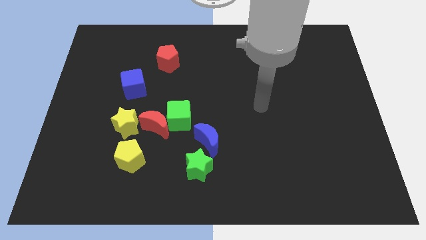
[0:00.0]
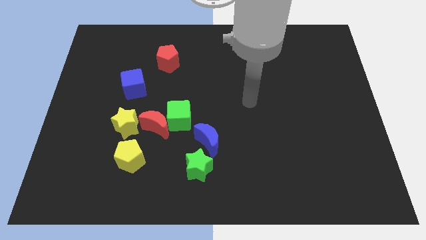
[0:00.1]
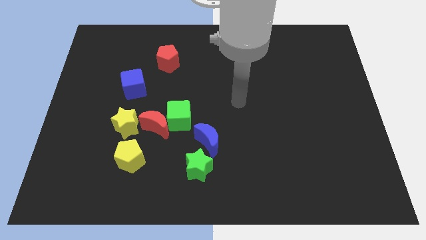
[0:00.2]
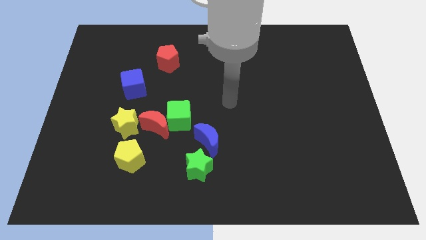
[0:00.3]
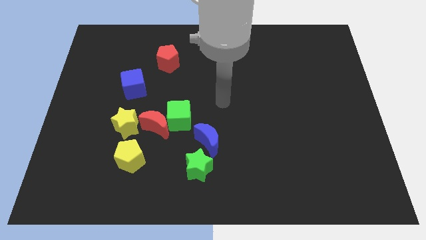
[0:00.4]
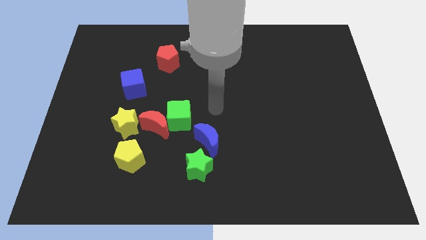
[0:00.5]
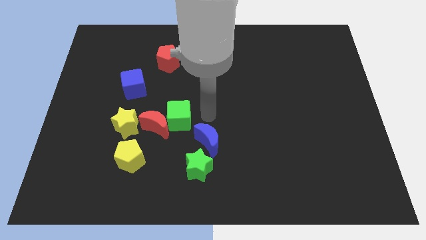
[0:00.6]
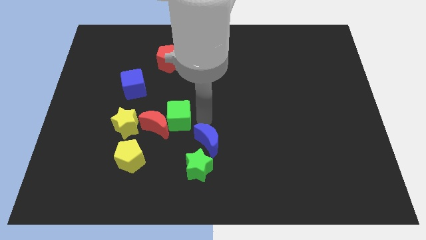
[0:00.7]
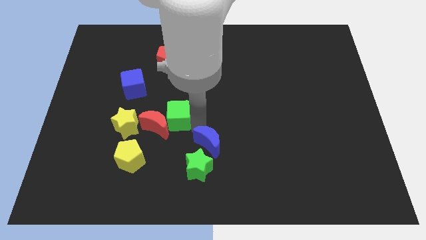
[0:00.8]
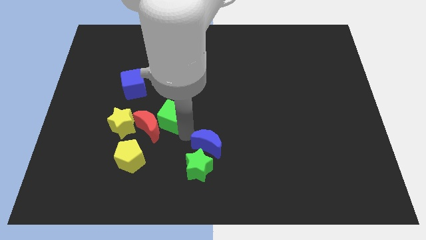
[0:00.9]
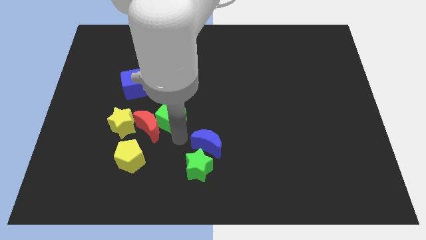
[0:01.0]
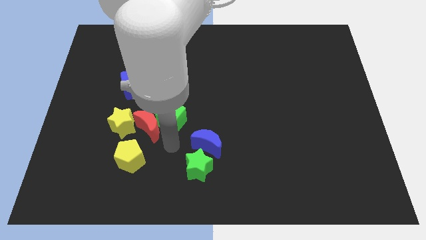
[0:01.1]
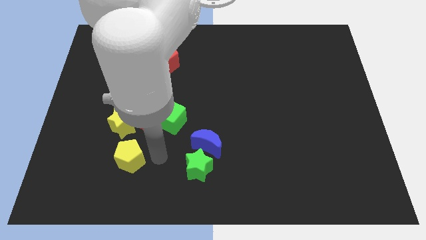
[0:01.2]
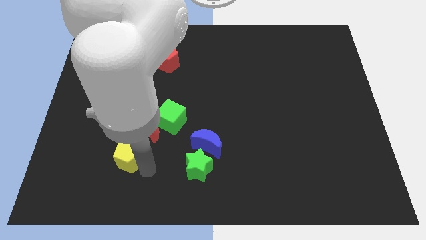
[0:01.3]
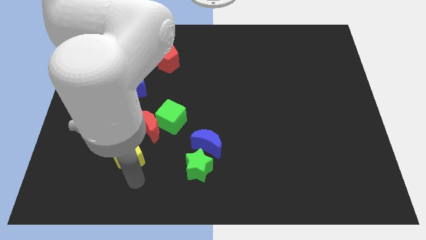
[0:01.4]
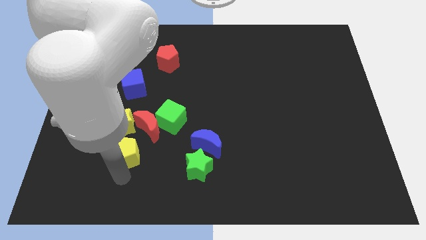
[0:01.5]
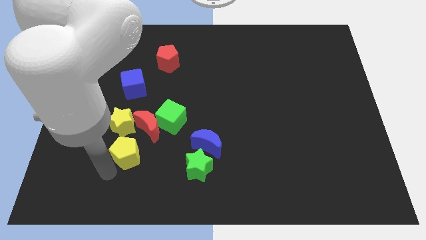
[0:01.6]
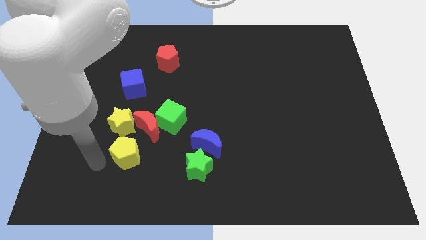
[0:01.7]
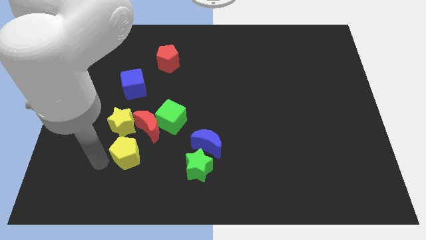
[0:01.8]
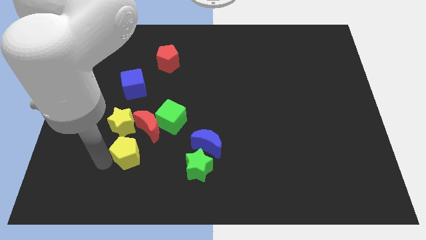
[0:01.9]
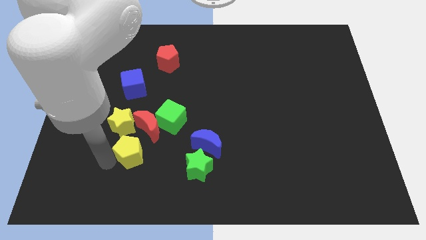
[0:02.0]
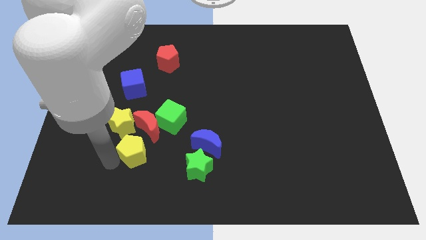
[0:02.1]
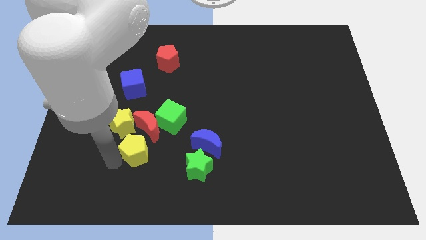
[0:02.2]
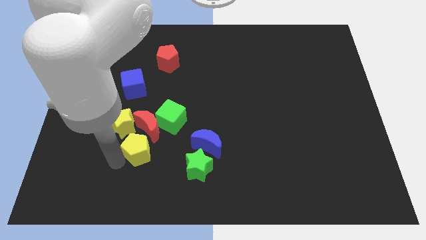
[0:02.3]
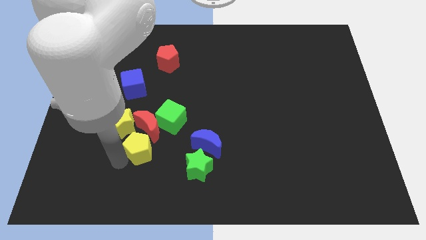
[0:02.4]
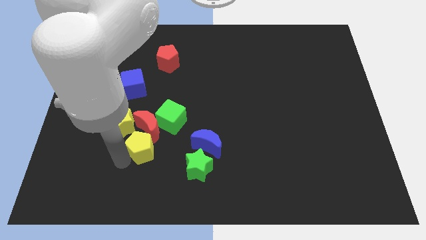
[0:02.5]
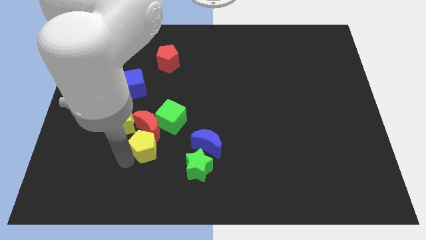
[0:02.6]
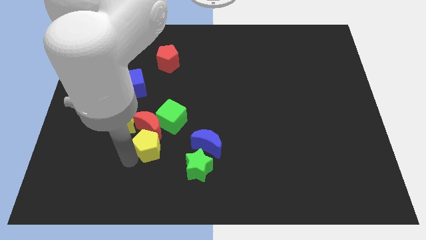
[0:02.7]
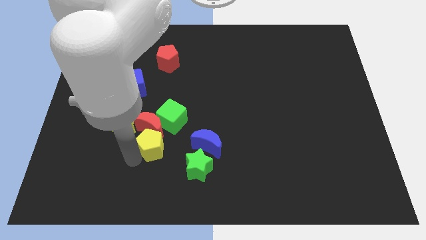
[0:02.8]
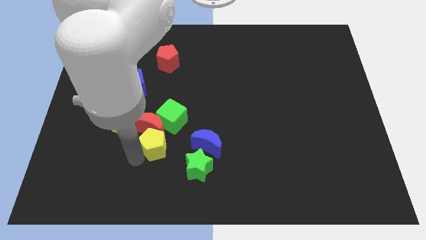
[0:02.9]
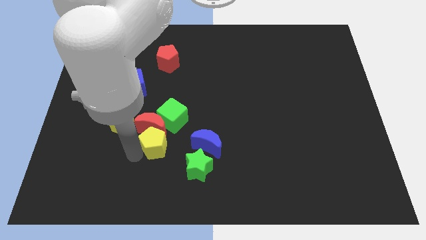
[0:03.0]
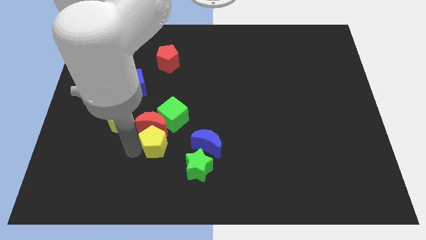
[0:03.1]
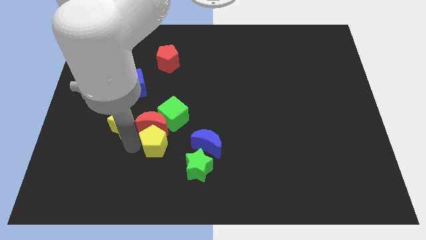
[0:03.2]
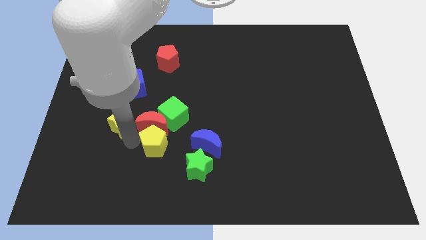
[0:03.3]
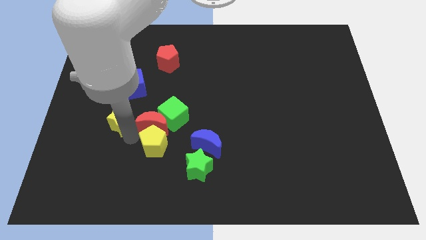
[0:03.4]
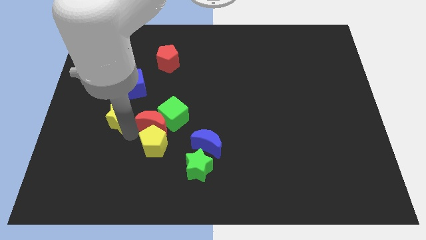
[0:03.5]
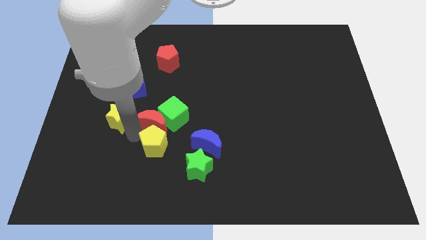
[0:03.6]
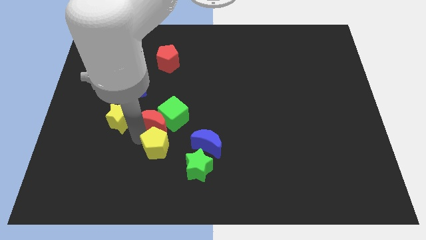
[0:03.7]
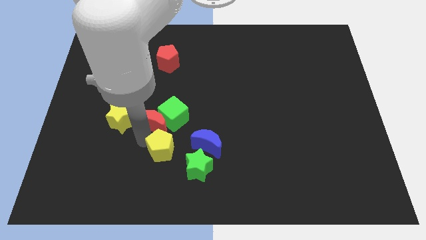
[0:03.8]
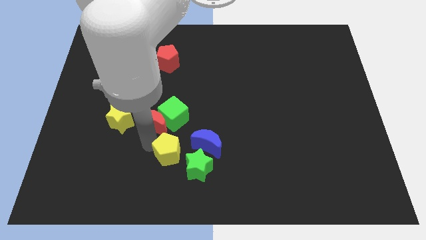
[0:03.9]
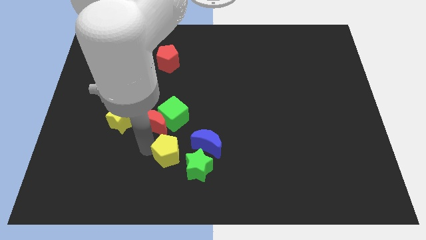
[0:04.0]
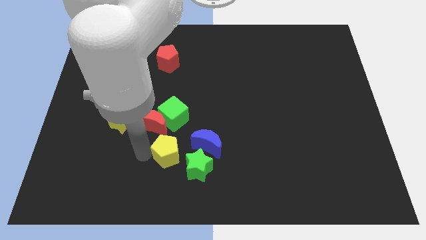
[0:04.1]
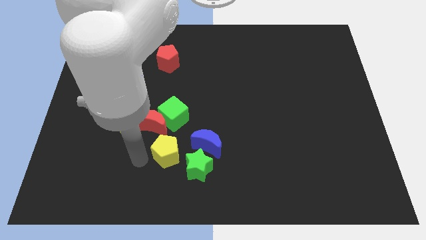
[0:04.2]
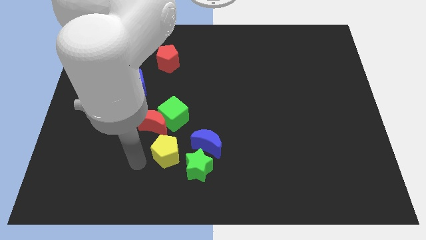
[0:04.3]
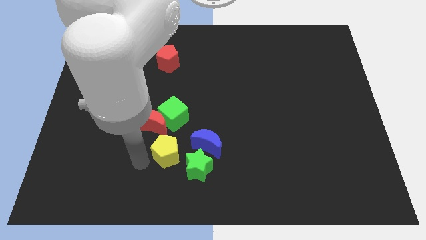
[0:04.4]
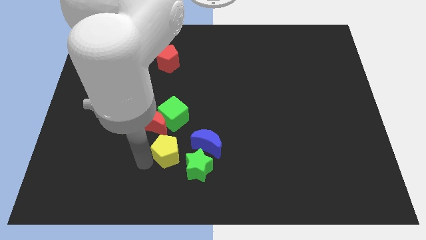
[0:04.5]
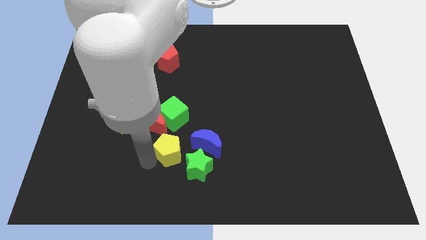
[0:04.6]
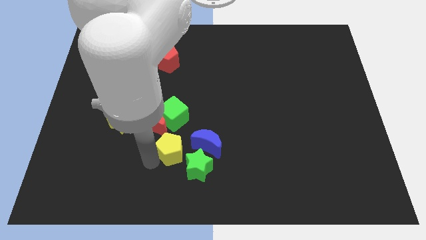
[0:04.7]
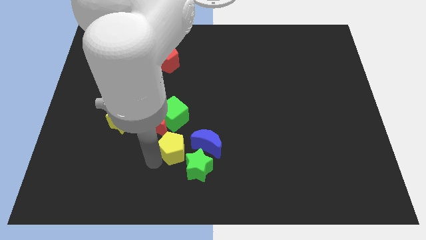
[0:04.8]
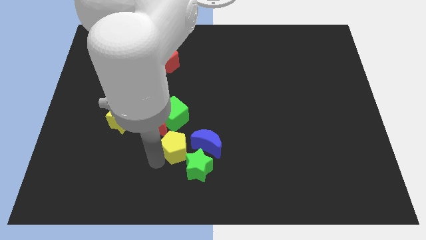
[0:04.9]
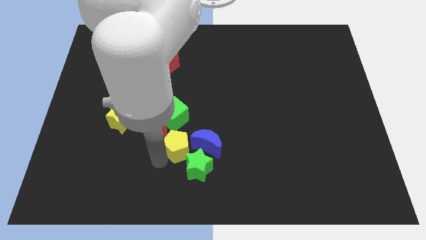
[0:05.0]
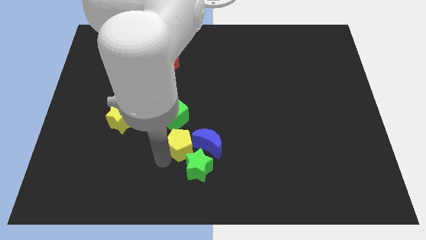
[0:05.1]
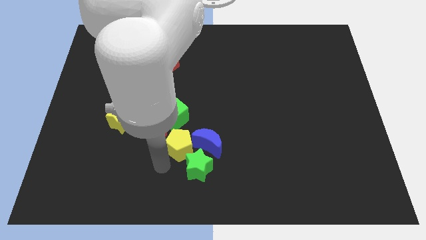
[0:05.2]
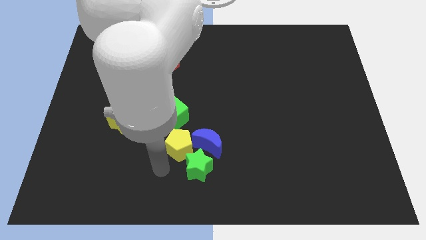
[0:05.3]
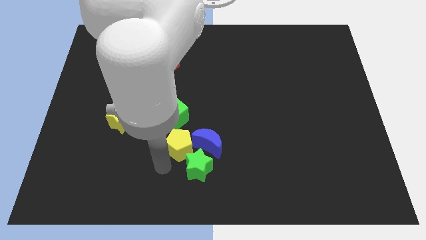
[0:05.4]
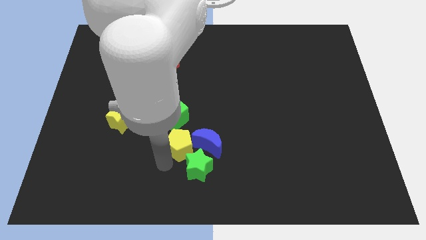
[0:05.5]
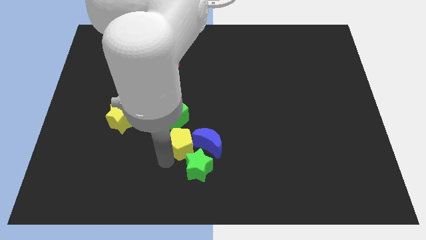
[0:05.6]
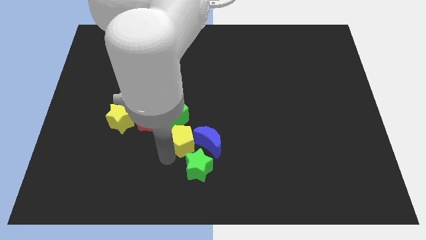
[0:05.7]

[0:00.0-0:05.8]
put the yellow pentagon just right of the red moon

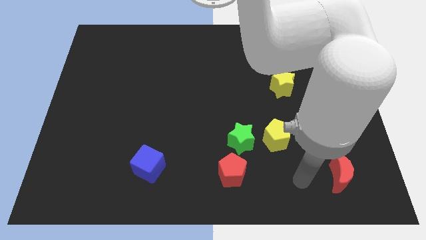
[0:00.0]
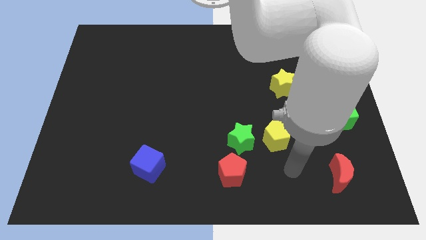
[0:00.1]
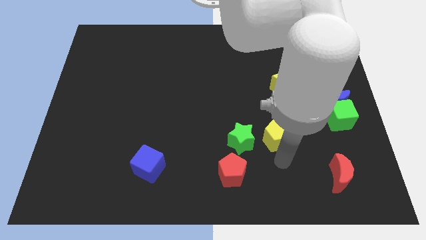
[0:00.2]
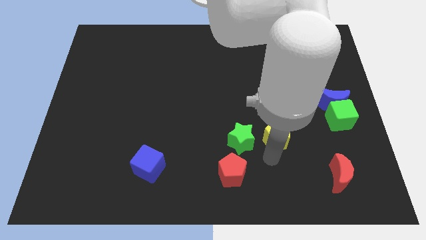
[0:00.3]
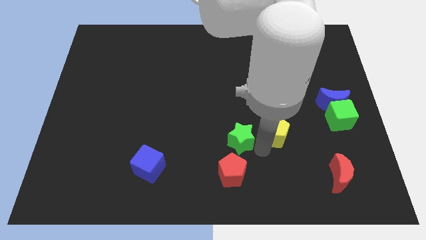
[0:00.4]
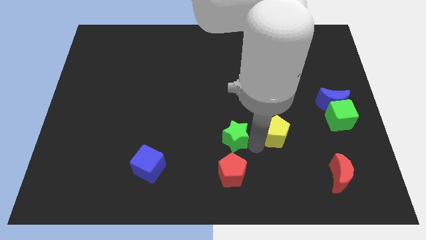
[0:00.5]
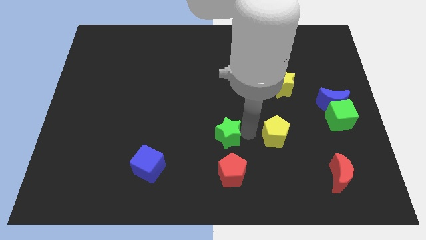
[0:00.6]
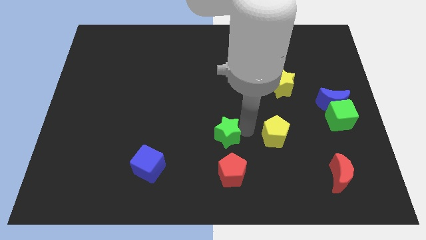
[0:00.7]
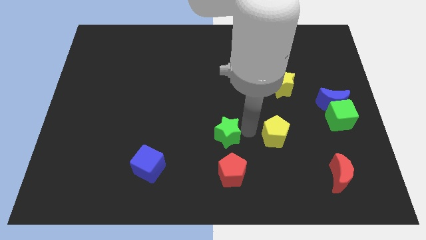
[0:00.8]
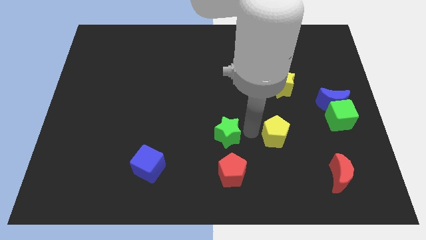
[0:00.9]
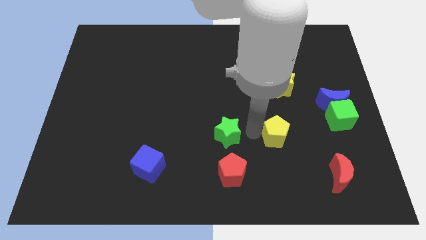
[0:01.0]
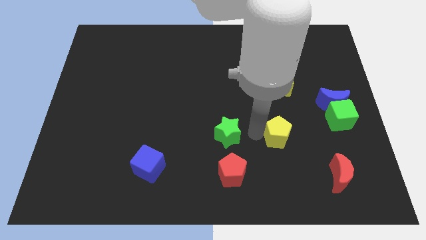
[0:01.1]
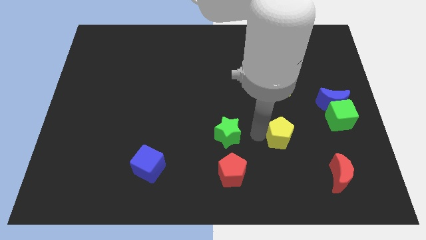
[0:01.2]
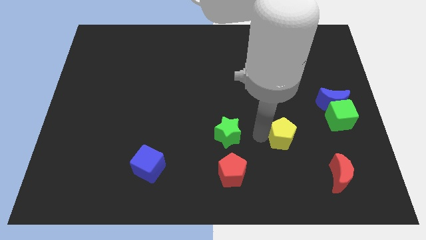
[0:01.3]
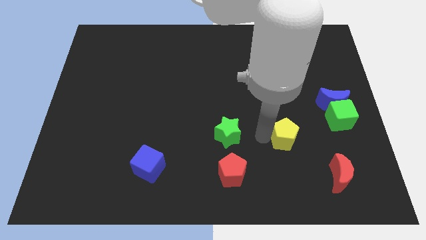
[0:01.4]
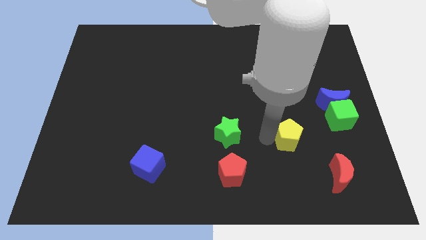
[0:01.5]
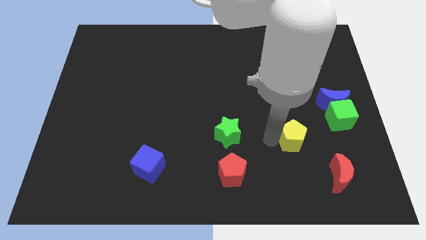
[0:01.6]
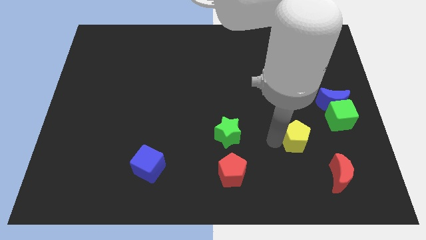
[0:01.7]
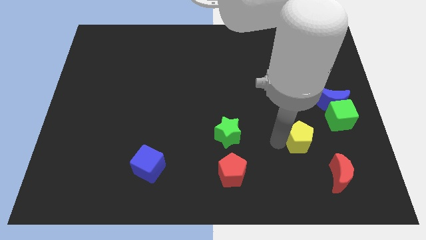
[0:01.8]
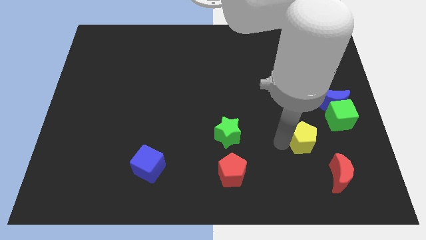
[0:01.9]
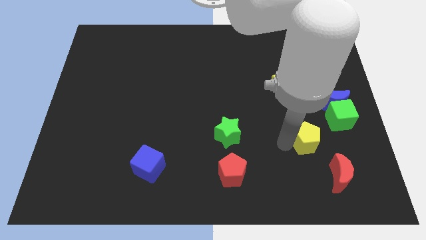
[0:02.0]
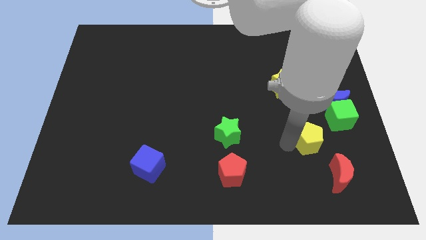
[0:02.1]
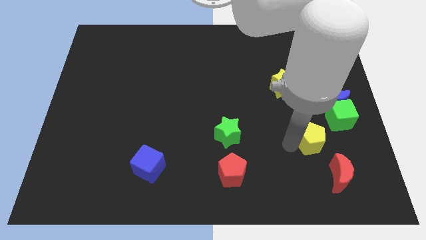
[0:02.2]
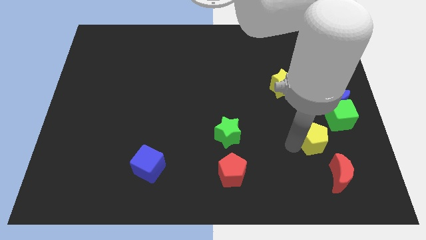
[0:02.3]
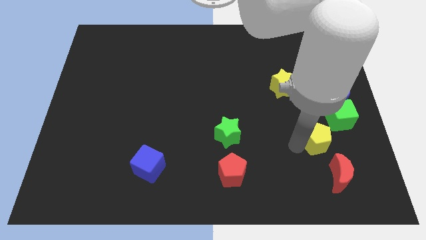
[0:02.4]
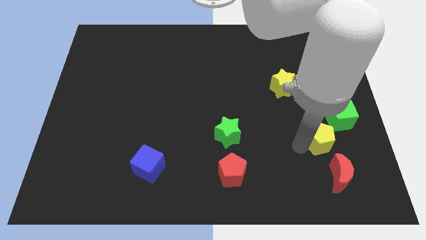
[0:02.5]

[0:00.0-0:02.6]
slide the yellow pentagon to the bottom of the blue moon
